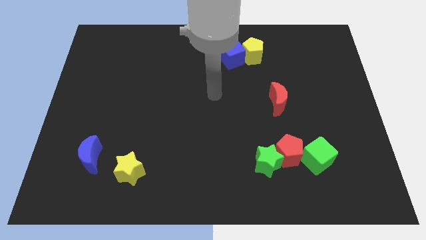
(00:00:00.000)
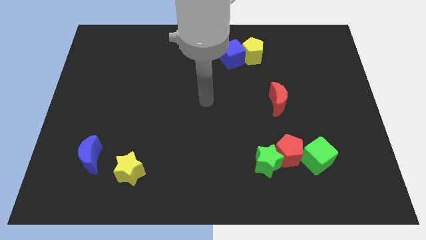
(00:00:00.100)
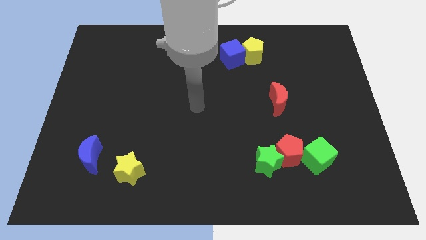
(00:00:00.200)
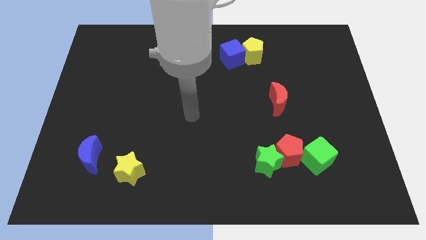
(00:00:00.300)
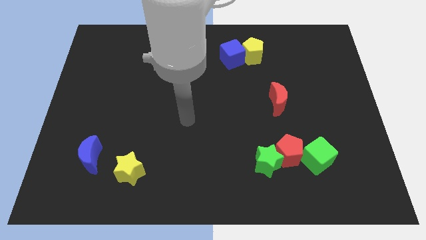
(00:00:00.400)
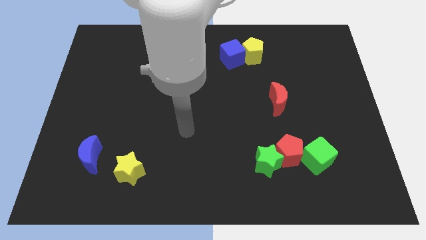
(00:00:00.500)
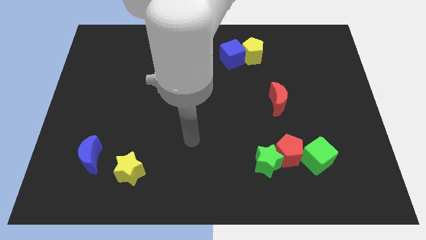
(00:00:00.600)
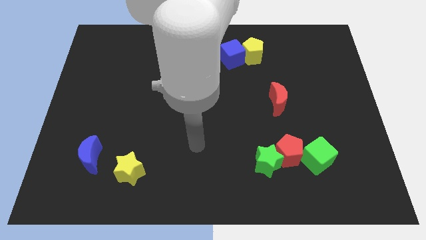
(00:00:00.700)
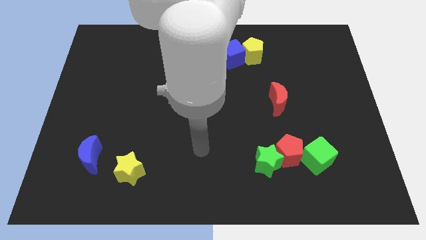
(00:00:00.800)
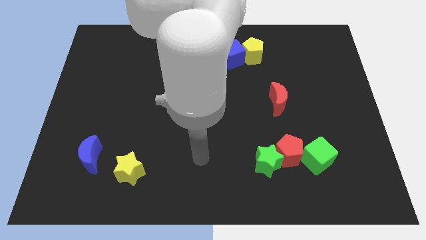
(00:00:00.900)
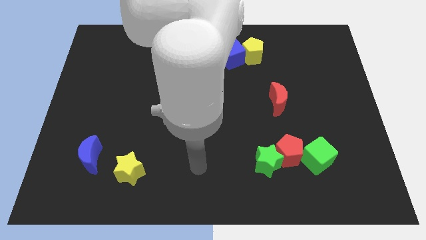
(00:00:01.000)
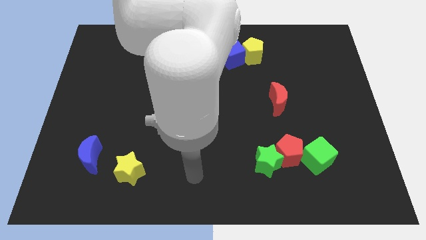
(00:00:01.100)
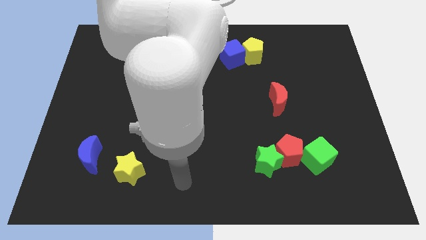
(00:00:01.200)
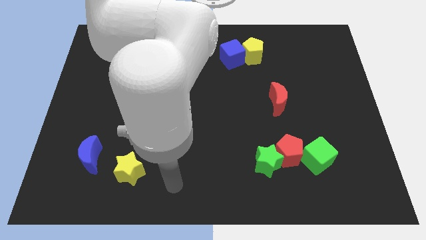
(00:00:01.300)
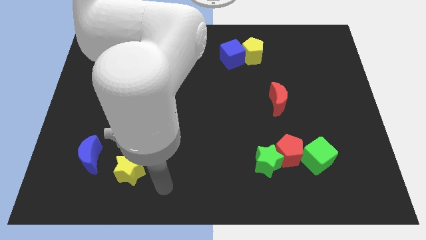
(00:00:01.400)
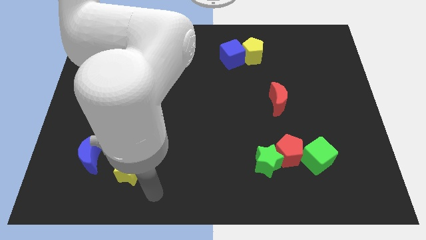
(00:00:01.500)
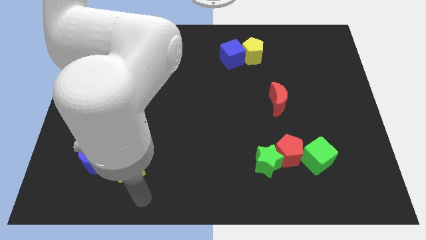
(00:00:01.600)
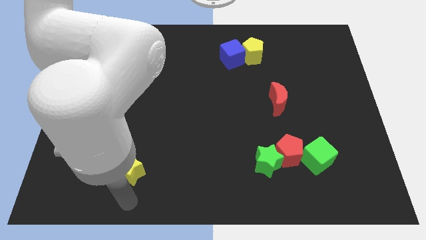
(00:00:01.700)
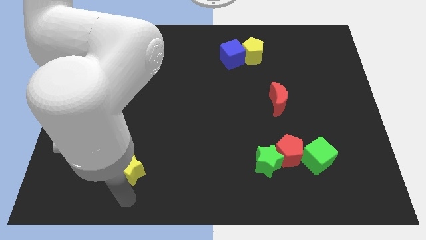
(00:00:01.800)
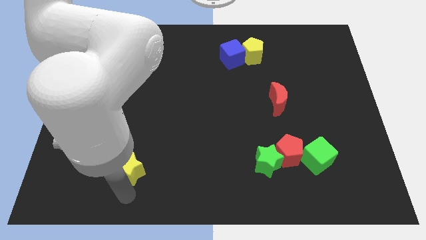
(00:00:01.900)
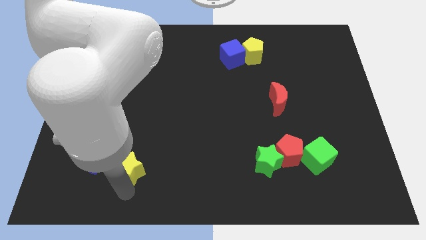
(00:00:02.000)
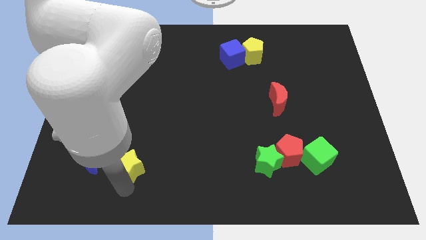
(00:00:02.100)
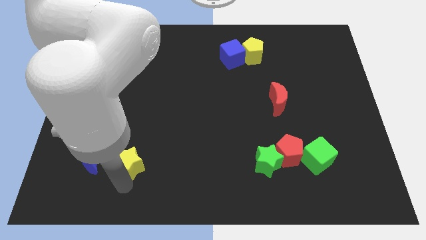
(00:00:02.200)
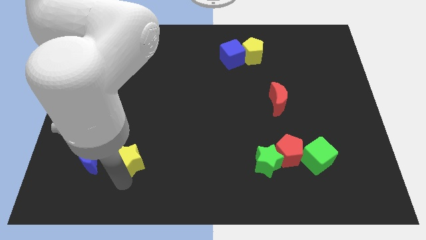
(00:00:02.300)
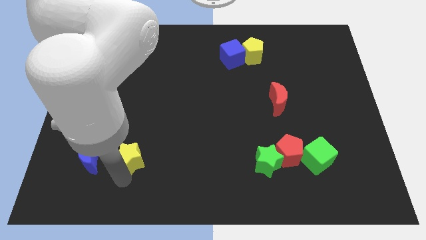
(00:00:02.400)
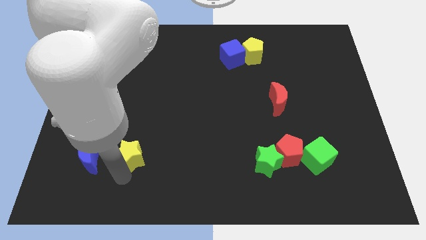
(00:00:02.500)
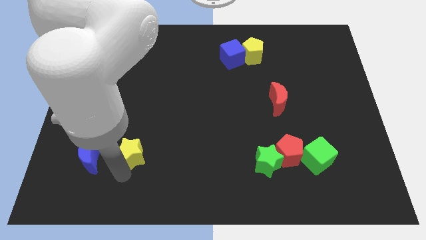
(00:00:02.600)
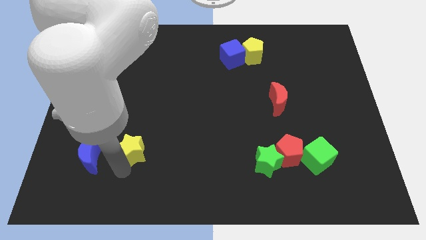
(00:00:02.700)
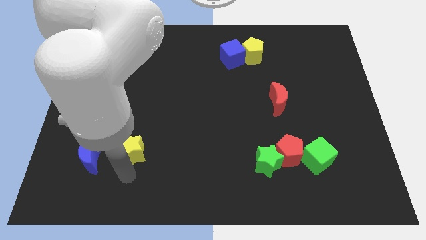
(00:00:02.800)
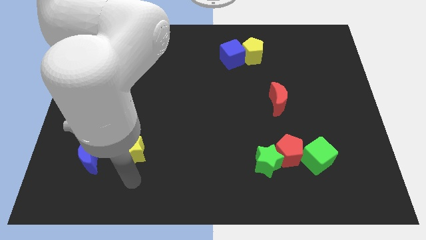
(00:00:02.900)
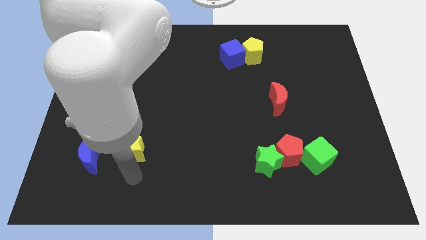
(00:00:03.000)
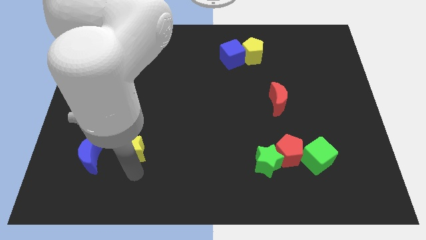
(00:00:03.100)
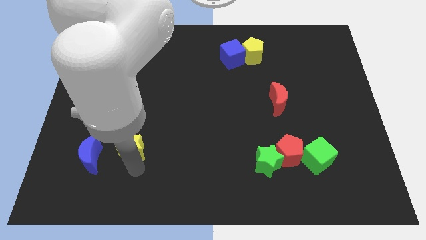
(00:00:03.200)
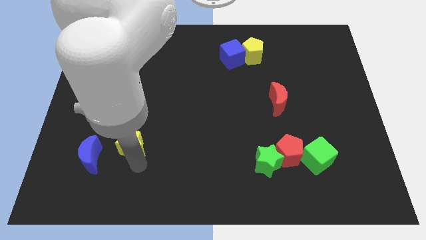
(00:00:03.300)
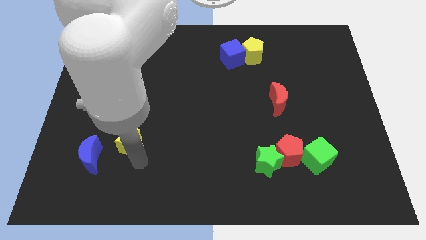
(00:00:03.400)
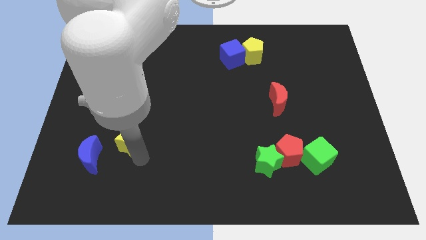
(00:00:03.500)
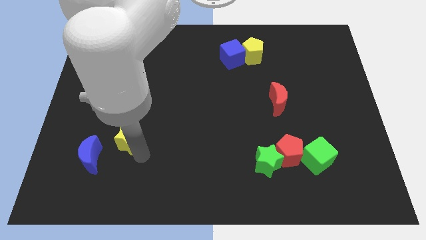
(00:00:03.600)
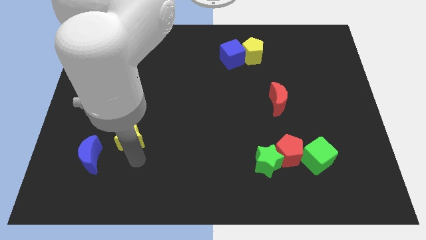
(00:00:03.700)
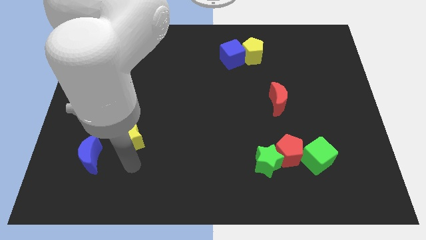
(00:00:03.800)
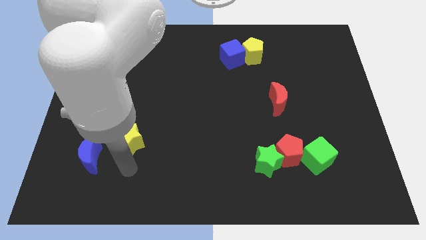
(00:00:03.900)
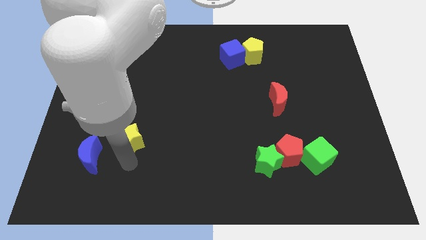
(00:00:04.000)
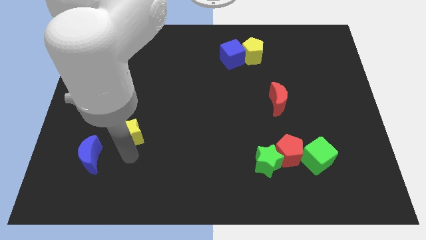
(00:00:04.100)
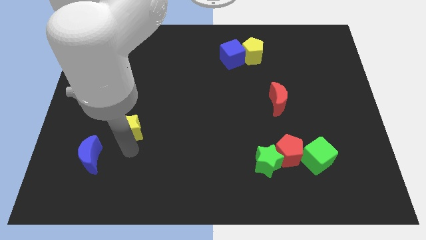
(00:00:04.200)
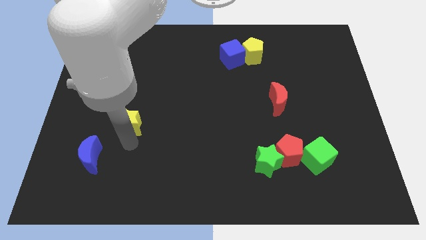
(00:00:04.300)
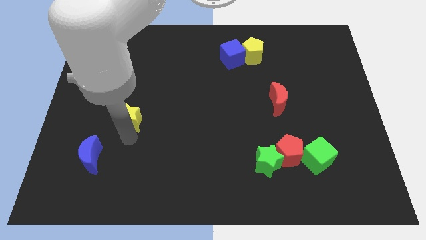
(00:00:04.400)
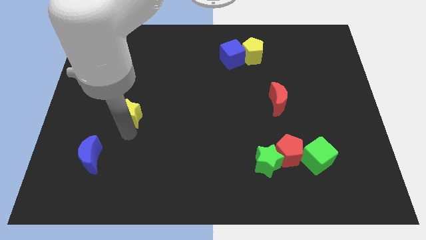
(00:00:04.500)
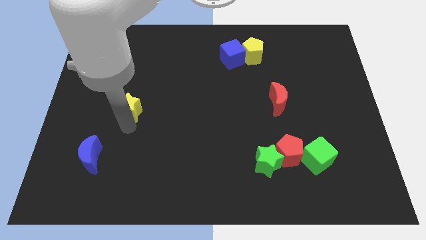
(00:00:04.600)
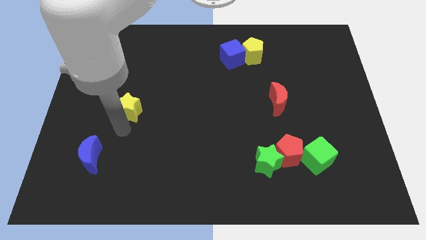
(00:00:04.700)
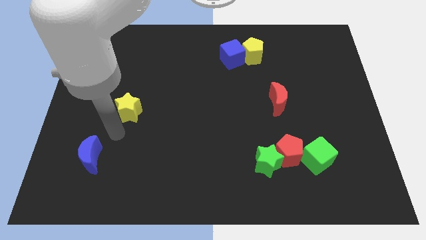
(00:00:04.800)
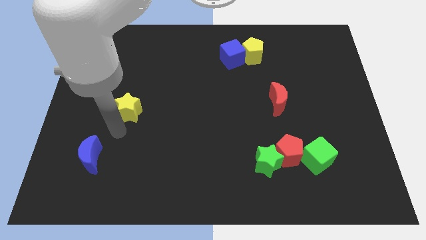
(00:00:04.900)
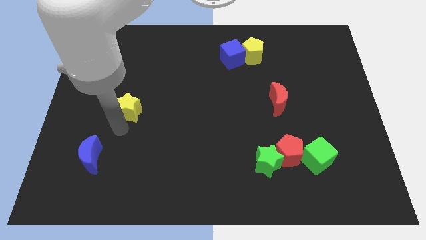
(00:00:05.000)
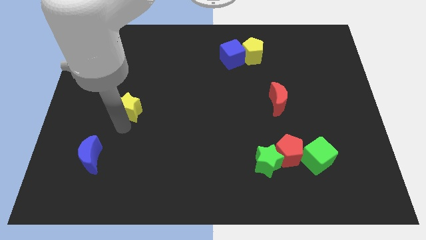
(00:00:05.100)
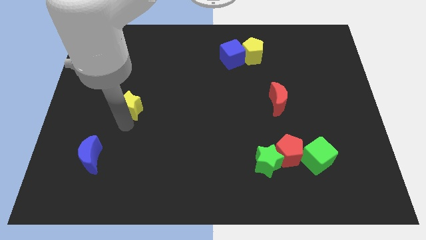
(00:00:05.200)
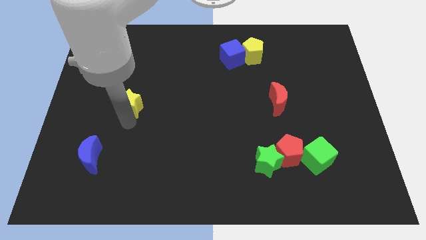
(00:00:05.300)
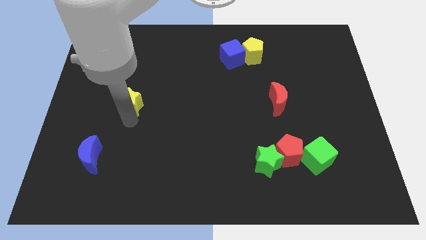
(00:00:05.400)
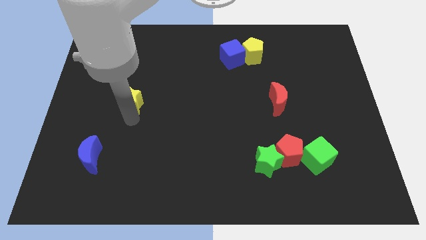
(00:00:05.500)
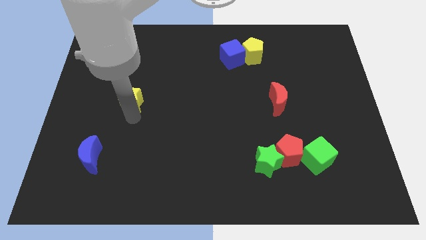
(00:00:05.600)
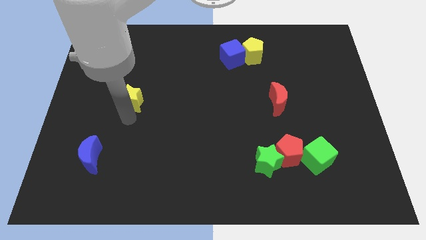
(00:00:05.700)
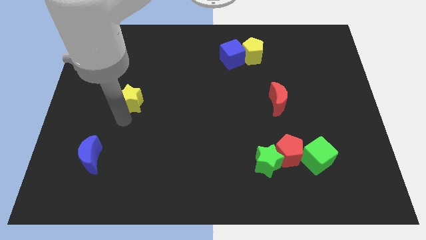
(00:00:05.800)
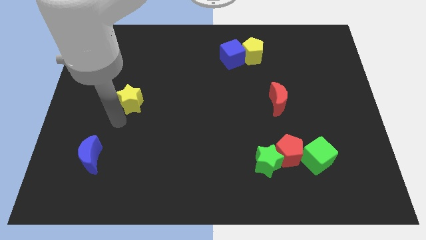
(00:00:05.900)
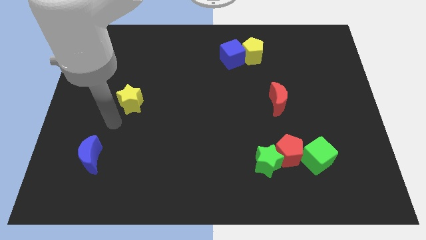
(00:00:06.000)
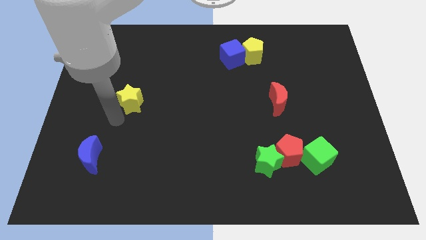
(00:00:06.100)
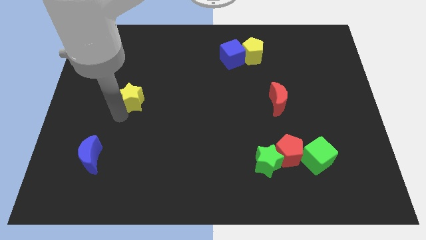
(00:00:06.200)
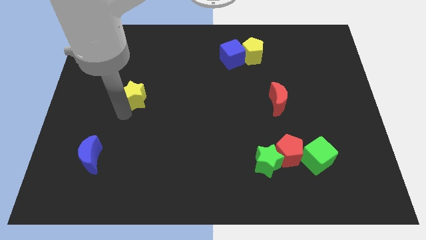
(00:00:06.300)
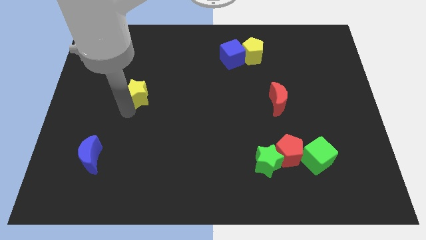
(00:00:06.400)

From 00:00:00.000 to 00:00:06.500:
move the yellow star up

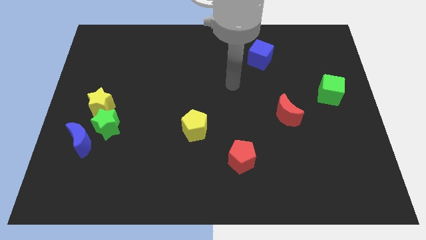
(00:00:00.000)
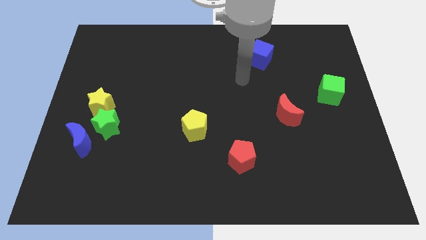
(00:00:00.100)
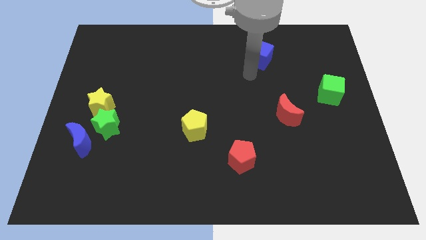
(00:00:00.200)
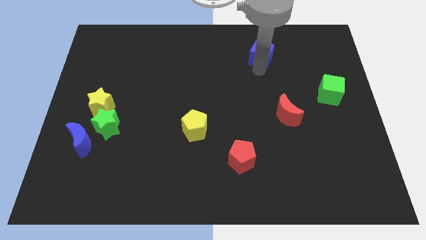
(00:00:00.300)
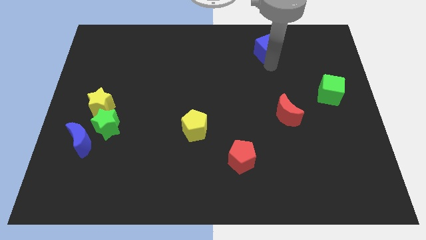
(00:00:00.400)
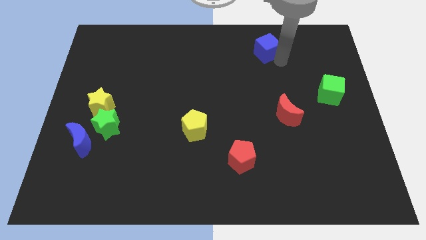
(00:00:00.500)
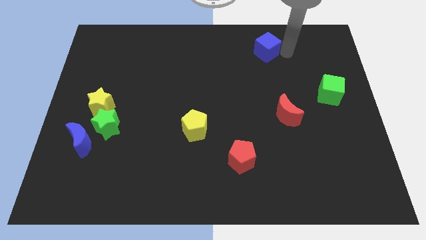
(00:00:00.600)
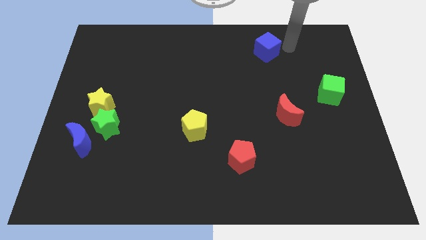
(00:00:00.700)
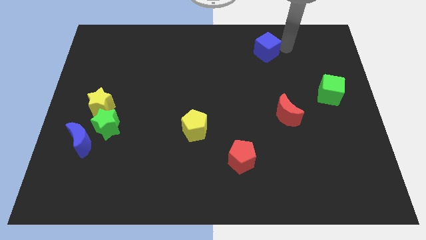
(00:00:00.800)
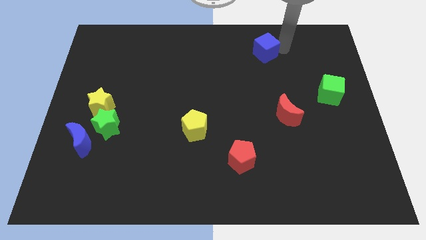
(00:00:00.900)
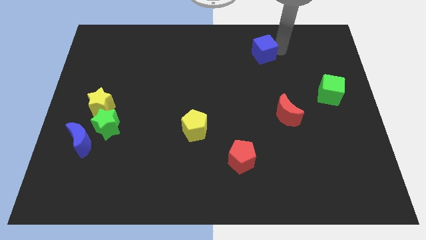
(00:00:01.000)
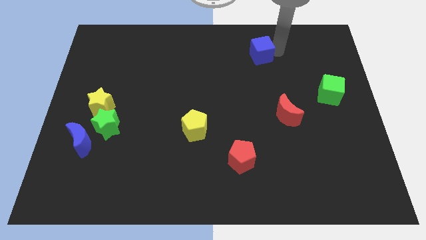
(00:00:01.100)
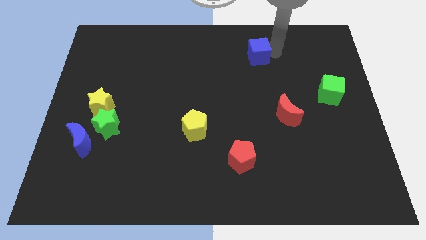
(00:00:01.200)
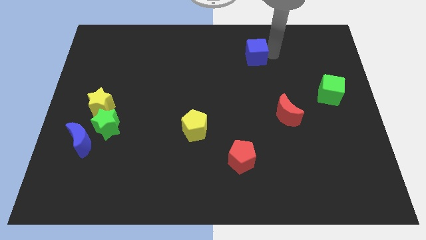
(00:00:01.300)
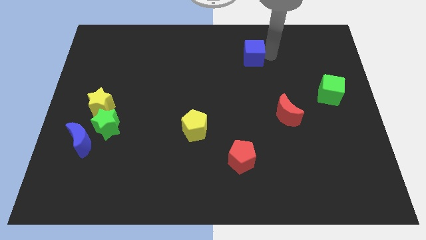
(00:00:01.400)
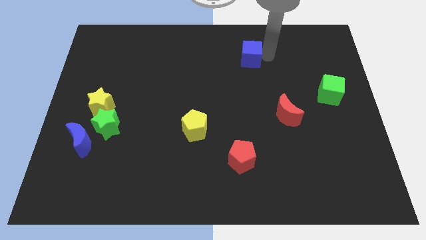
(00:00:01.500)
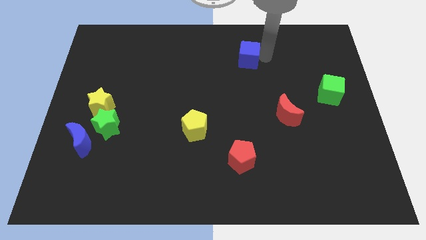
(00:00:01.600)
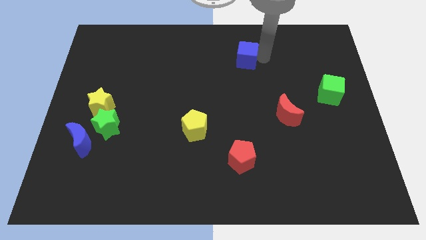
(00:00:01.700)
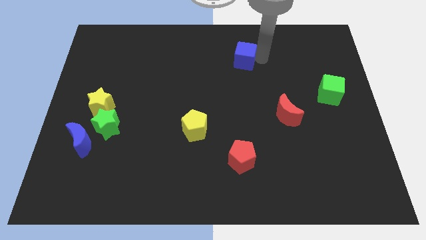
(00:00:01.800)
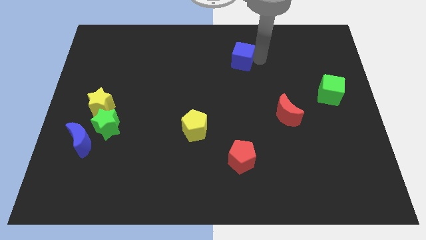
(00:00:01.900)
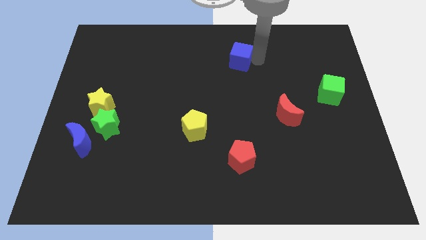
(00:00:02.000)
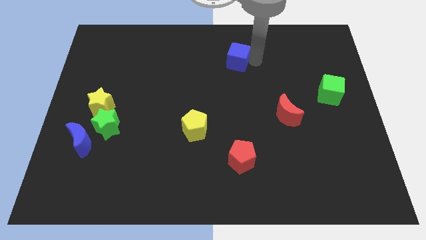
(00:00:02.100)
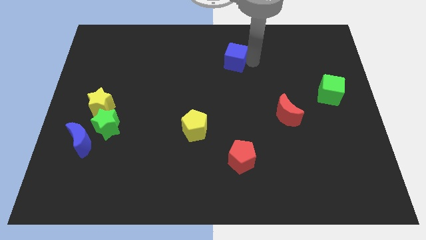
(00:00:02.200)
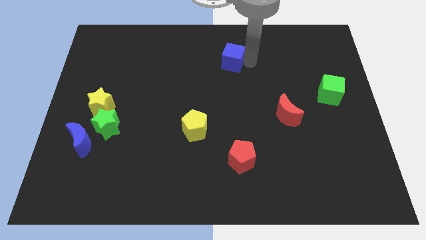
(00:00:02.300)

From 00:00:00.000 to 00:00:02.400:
slightly move the blue cube to the left
